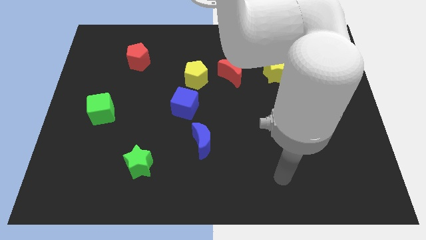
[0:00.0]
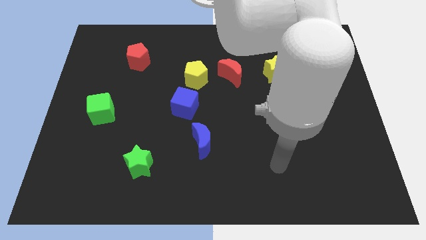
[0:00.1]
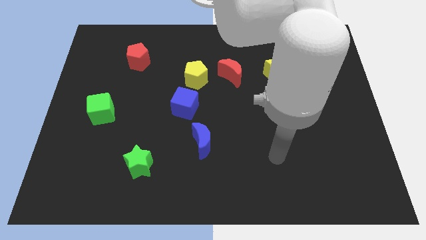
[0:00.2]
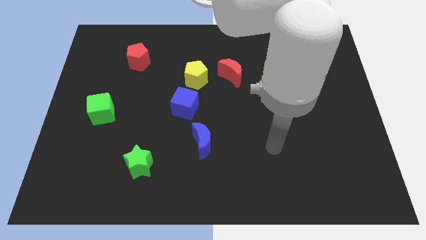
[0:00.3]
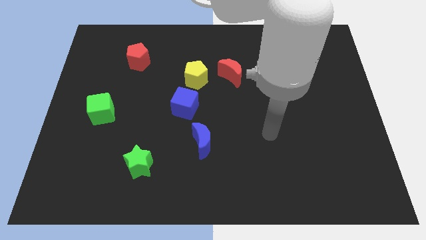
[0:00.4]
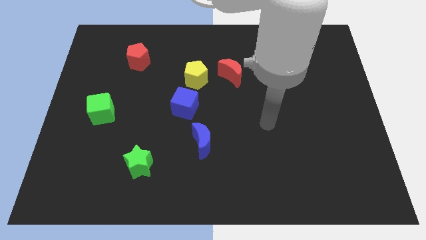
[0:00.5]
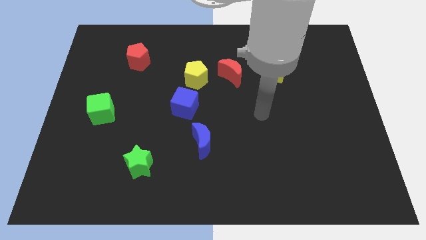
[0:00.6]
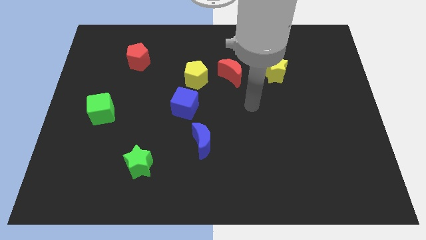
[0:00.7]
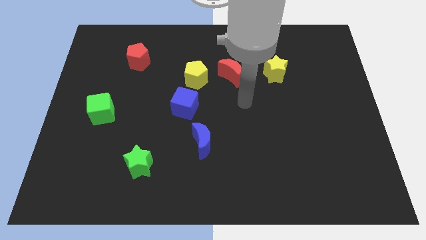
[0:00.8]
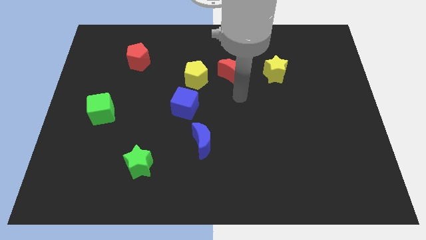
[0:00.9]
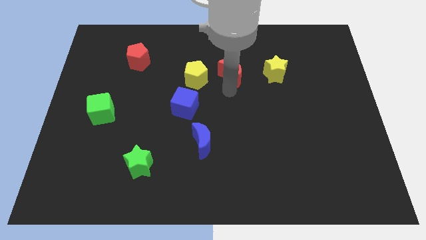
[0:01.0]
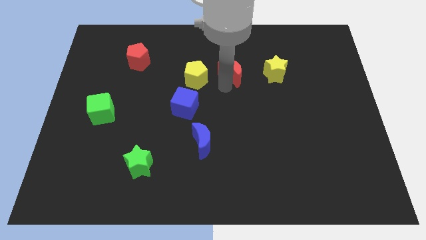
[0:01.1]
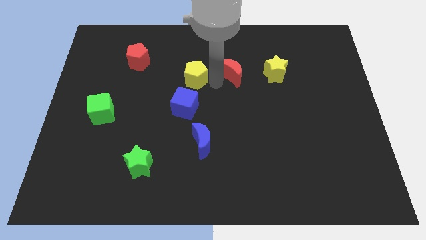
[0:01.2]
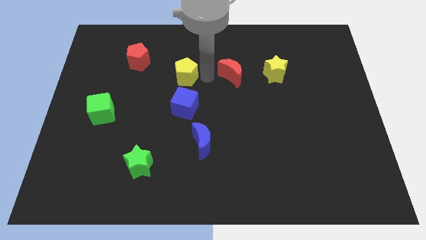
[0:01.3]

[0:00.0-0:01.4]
separate the red moon from the yellow pentagon

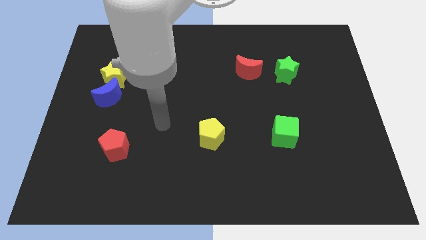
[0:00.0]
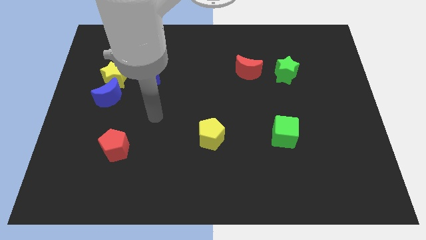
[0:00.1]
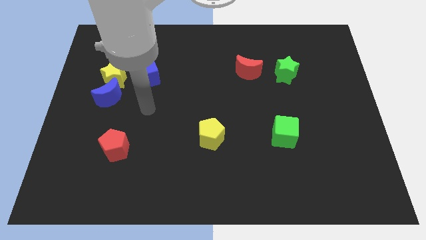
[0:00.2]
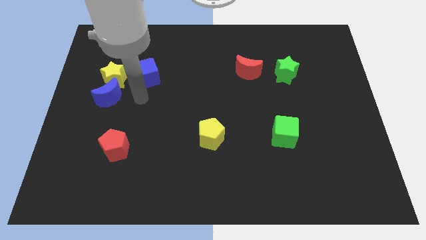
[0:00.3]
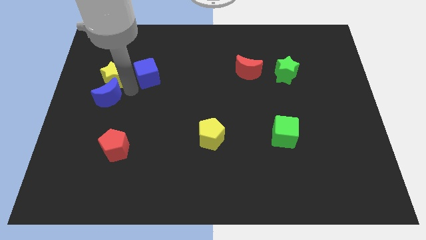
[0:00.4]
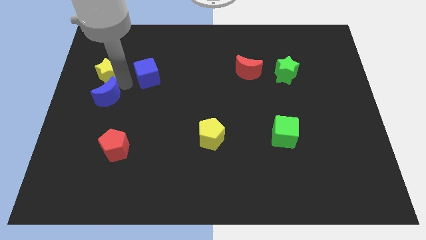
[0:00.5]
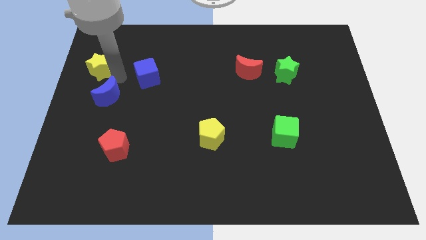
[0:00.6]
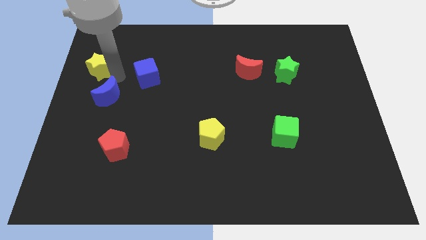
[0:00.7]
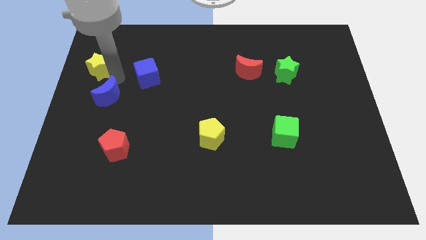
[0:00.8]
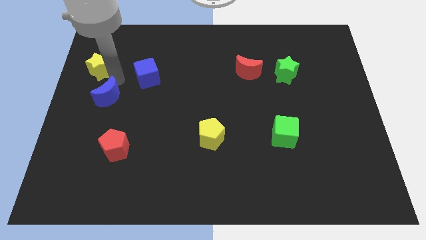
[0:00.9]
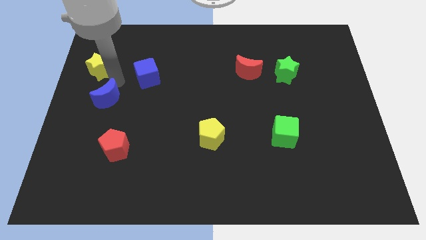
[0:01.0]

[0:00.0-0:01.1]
pull the blue moon apart from the yellow star

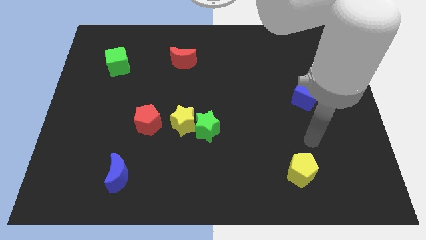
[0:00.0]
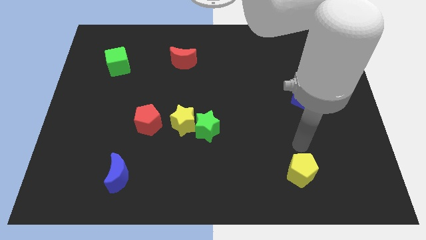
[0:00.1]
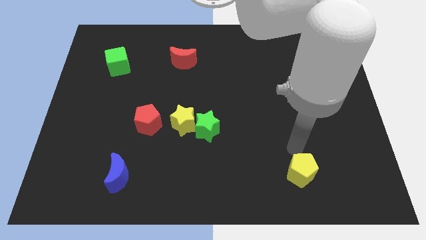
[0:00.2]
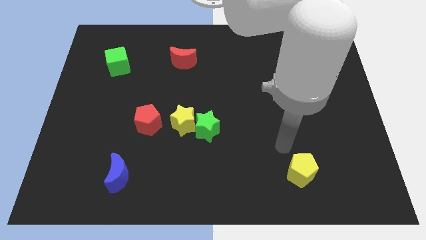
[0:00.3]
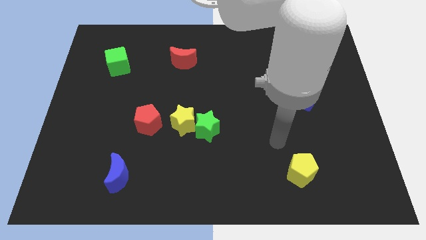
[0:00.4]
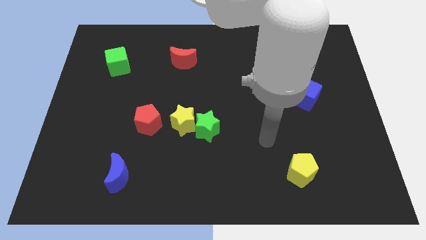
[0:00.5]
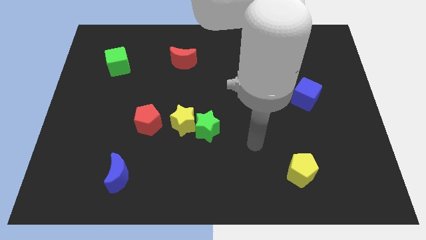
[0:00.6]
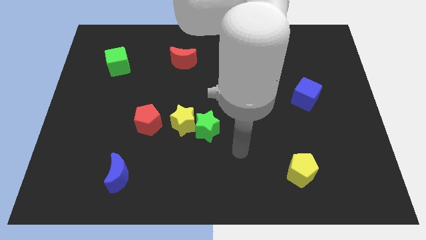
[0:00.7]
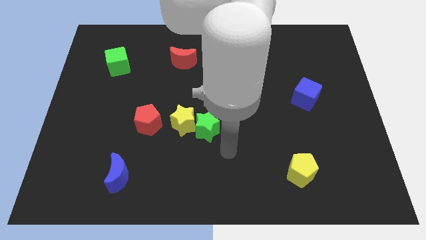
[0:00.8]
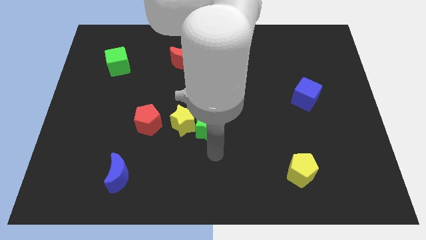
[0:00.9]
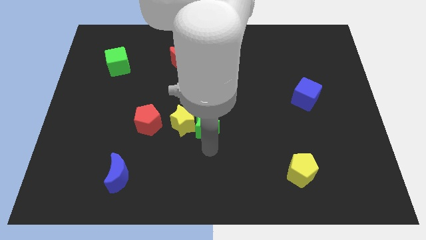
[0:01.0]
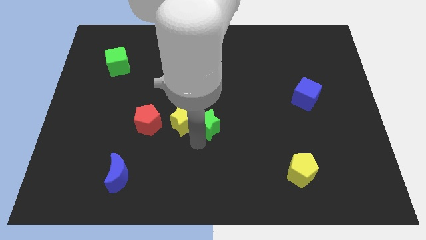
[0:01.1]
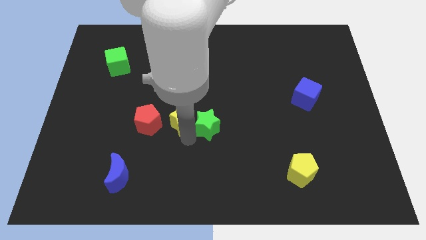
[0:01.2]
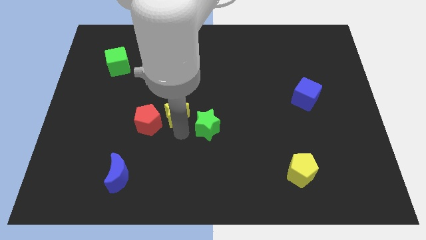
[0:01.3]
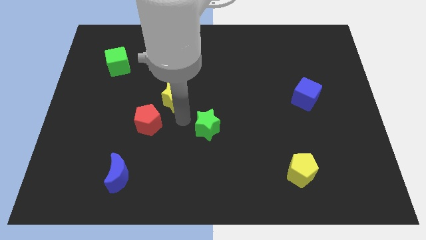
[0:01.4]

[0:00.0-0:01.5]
pull the green star apart from the yellow star

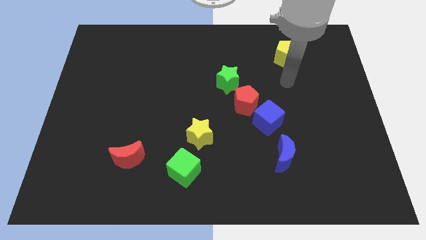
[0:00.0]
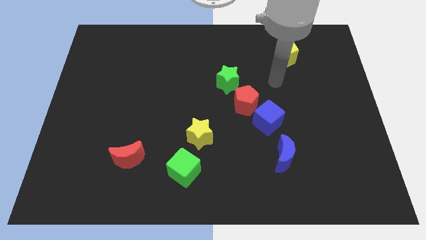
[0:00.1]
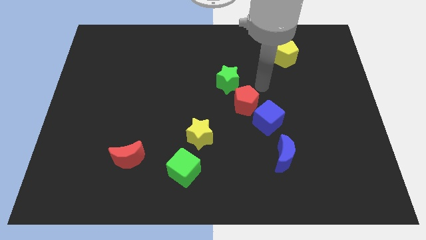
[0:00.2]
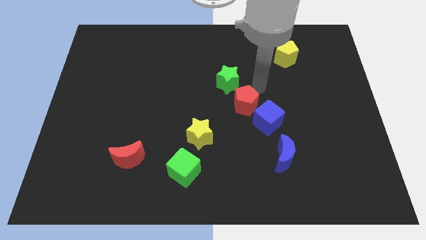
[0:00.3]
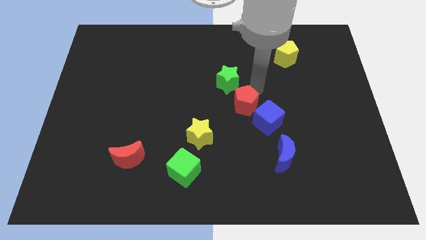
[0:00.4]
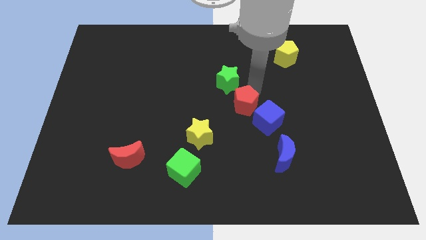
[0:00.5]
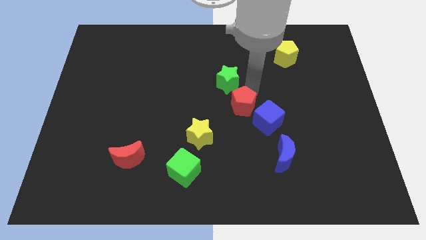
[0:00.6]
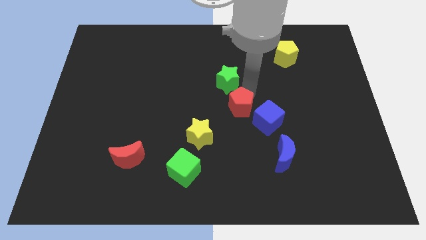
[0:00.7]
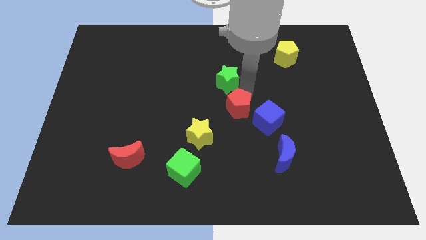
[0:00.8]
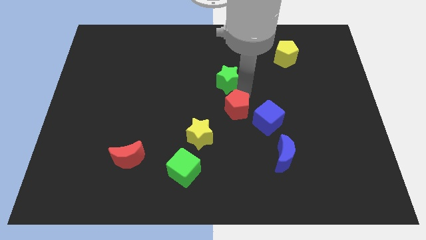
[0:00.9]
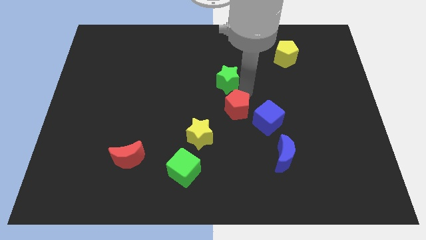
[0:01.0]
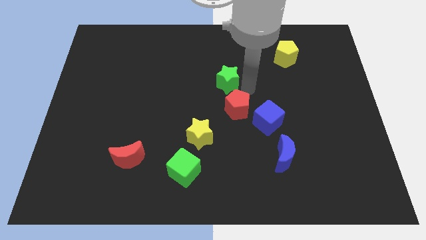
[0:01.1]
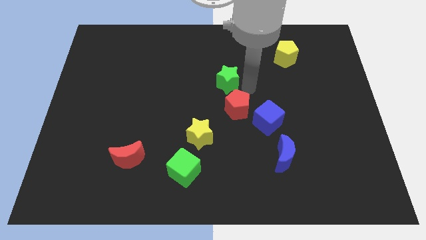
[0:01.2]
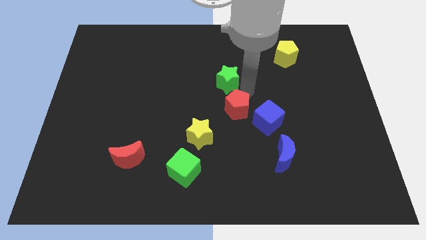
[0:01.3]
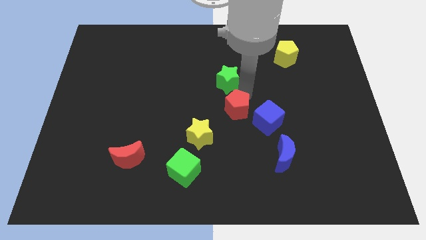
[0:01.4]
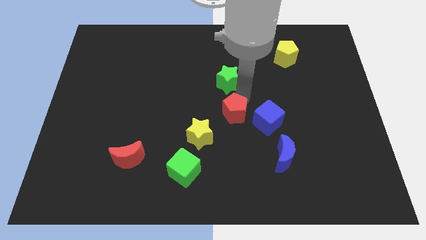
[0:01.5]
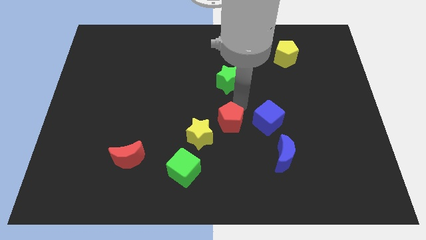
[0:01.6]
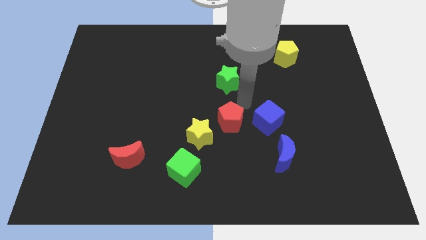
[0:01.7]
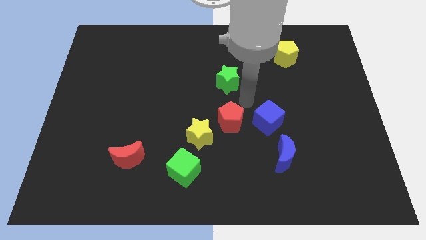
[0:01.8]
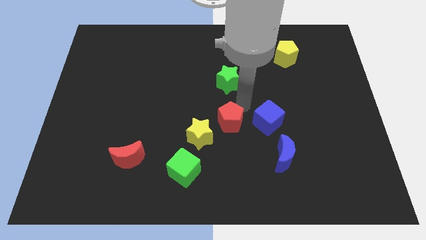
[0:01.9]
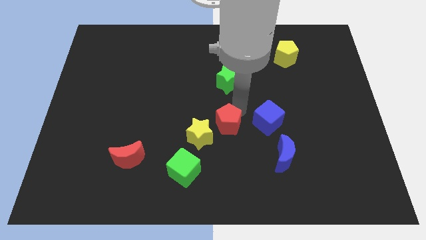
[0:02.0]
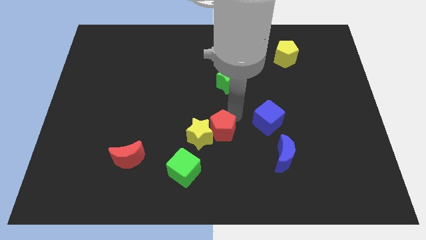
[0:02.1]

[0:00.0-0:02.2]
separate the red pentagon from the blue cube and green star

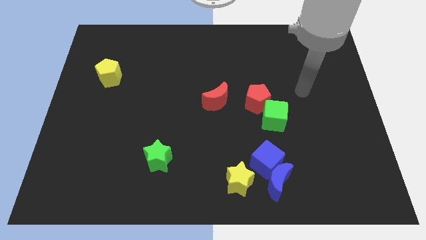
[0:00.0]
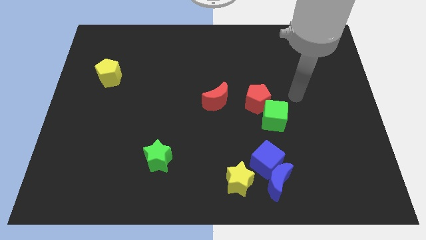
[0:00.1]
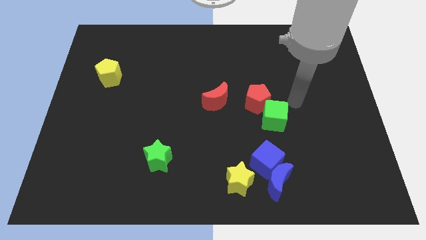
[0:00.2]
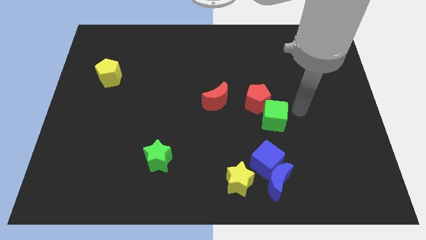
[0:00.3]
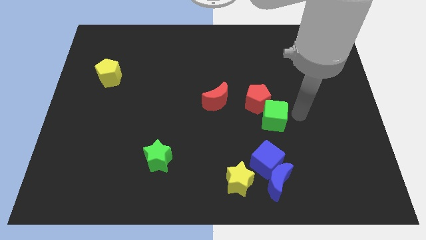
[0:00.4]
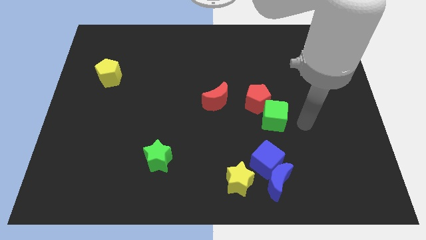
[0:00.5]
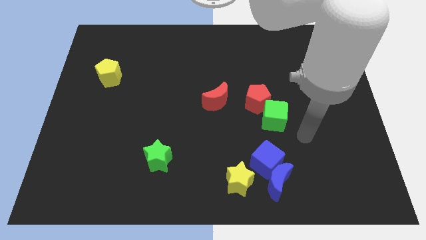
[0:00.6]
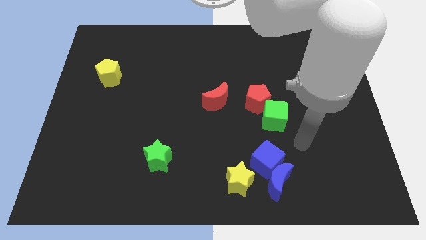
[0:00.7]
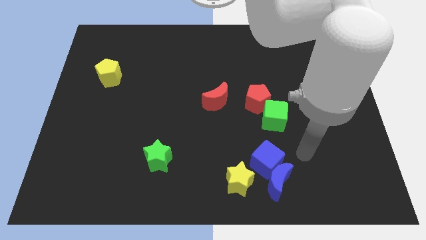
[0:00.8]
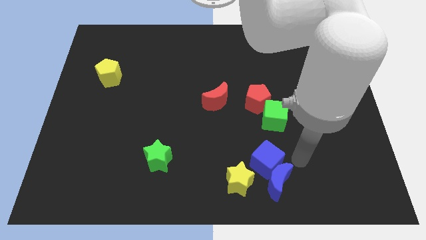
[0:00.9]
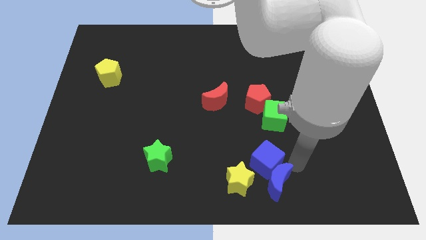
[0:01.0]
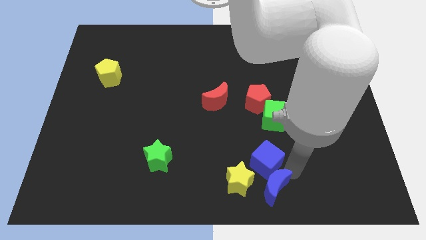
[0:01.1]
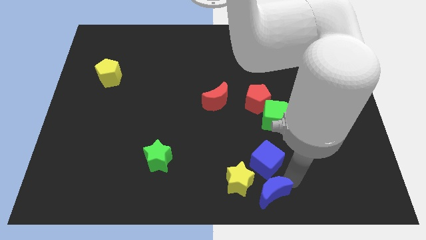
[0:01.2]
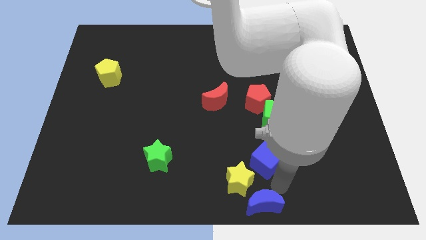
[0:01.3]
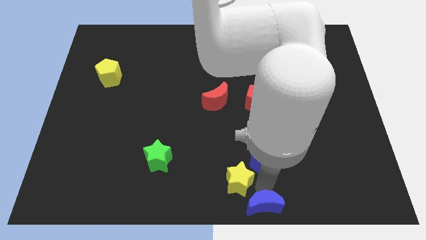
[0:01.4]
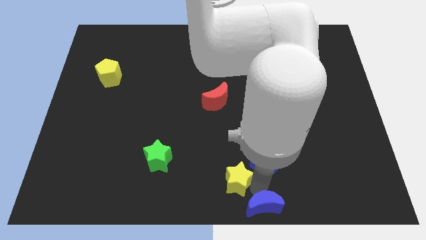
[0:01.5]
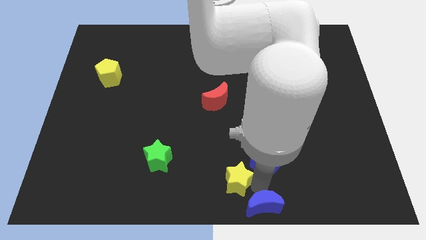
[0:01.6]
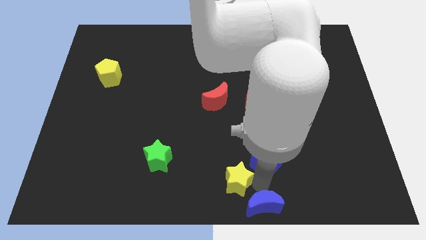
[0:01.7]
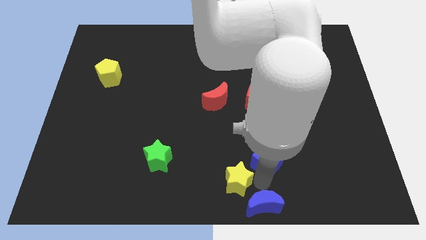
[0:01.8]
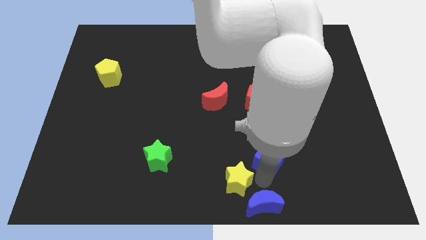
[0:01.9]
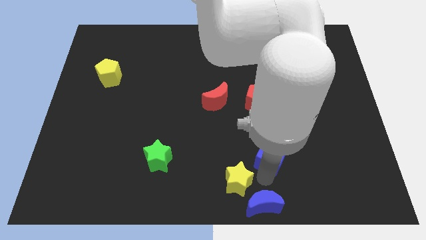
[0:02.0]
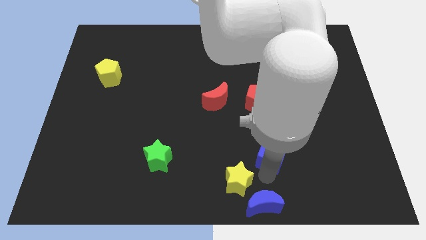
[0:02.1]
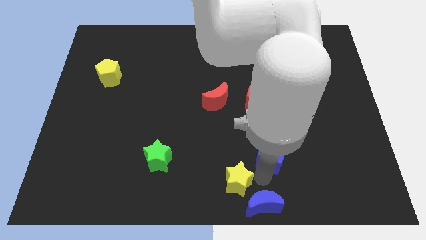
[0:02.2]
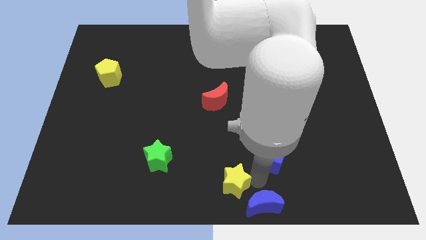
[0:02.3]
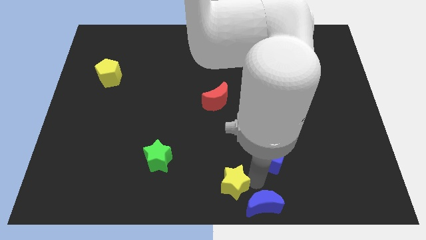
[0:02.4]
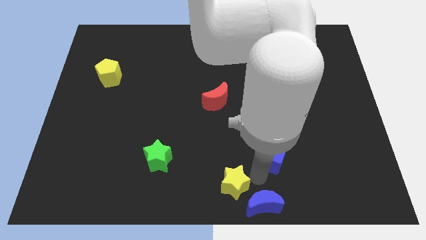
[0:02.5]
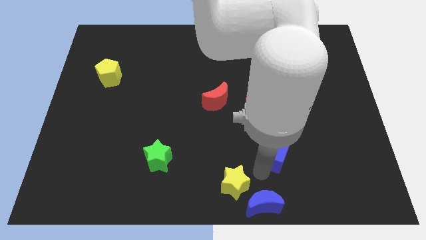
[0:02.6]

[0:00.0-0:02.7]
separate the blue cube from the blue moon and yellow star

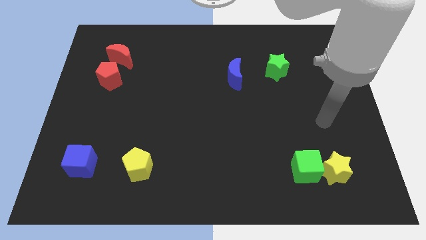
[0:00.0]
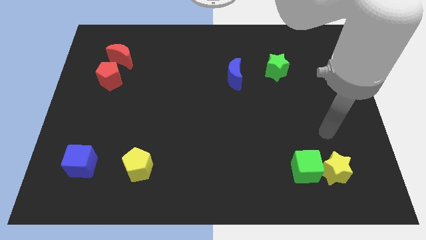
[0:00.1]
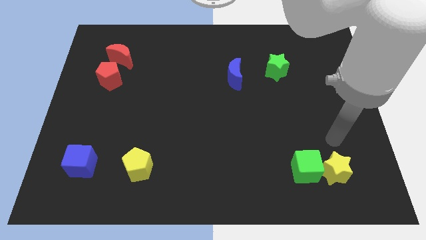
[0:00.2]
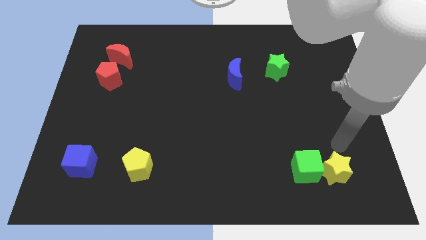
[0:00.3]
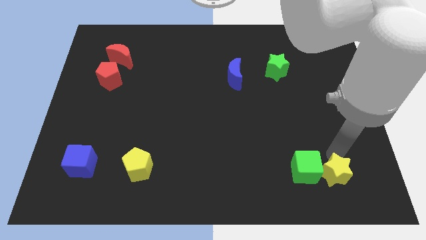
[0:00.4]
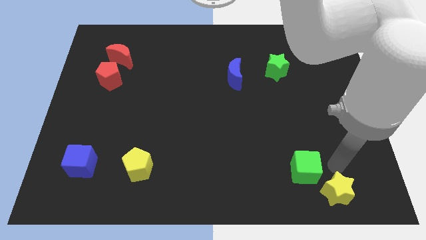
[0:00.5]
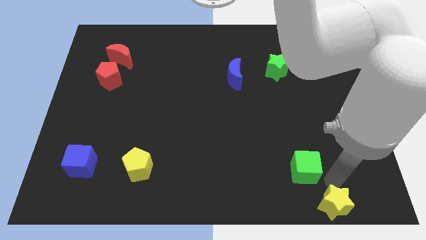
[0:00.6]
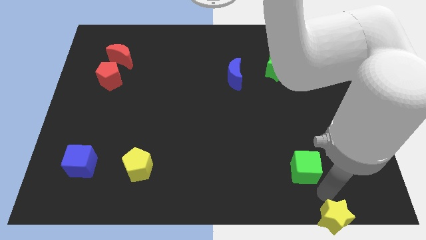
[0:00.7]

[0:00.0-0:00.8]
separate the green cube from the yellow star
